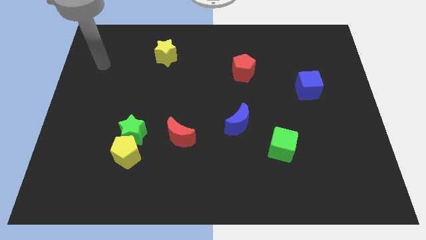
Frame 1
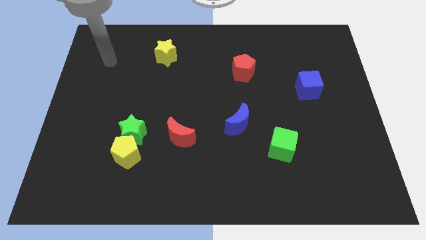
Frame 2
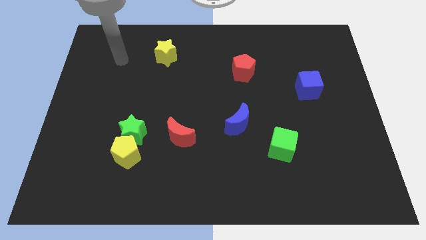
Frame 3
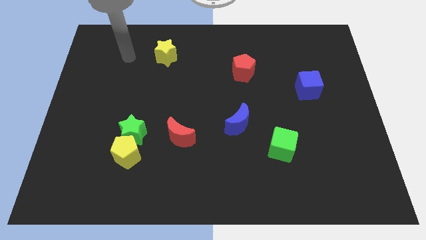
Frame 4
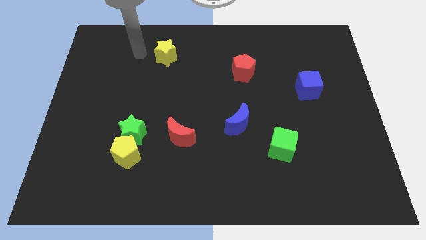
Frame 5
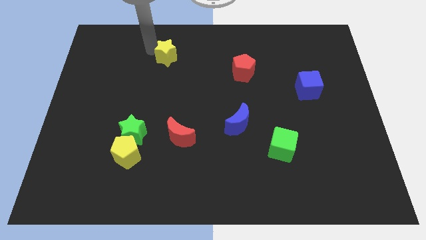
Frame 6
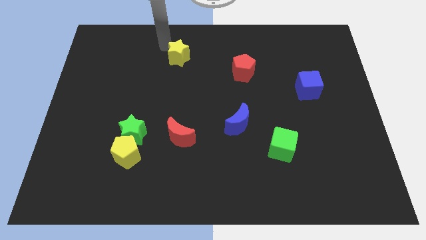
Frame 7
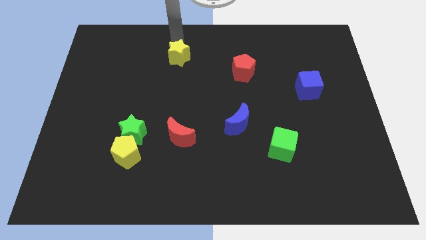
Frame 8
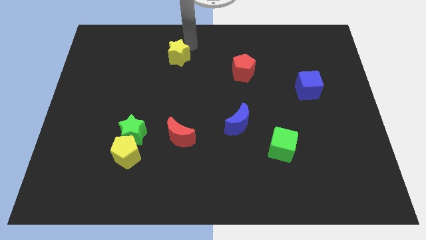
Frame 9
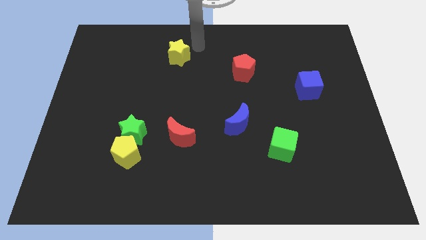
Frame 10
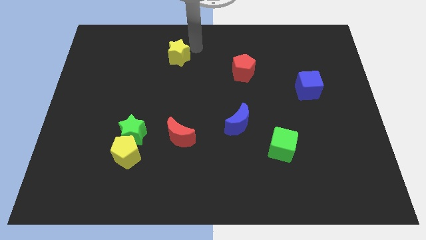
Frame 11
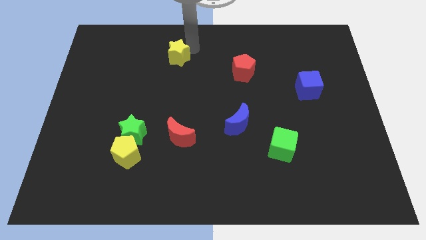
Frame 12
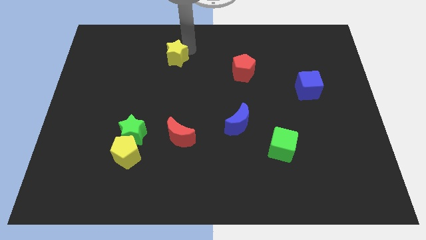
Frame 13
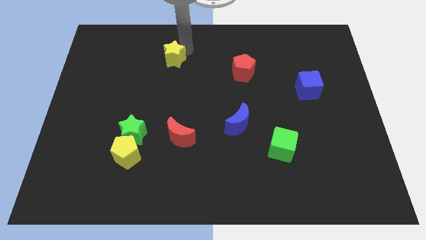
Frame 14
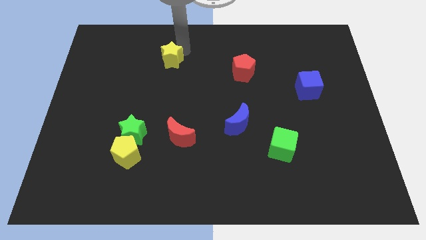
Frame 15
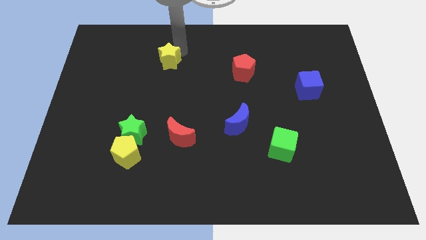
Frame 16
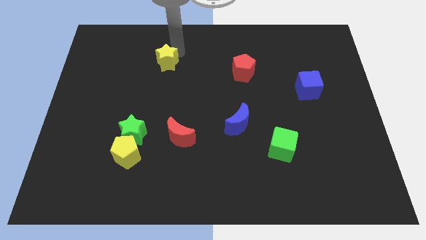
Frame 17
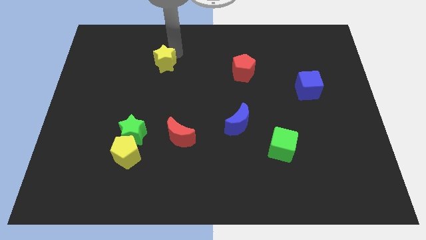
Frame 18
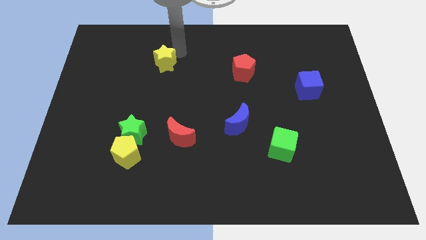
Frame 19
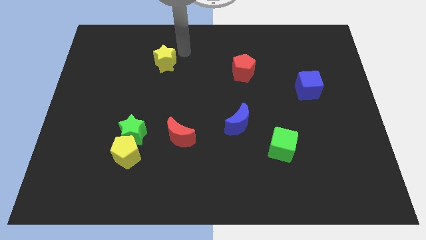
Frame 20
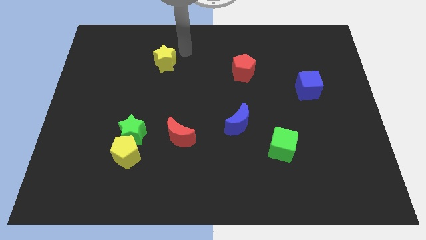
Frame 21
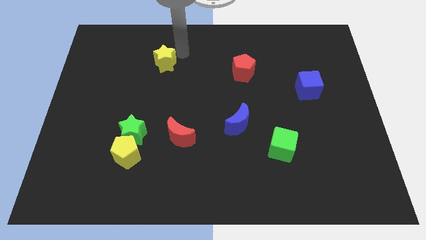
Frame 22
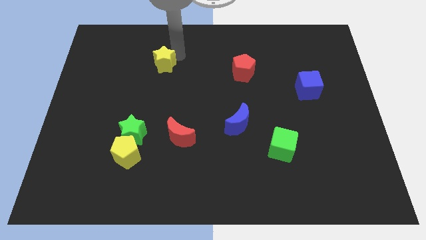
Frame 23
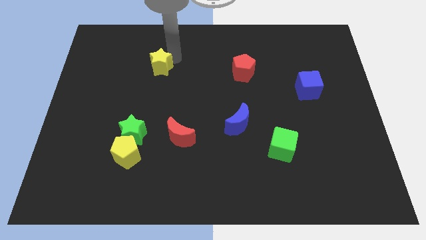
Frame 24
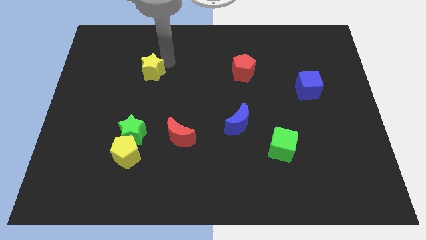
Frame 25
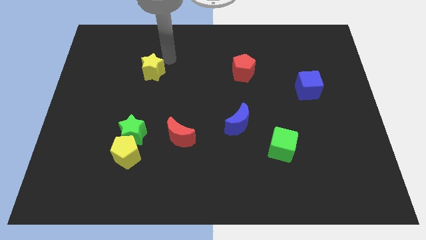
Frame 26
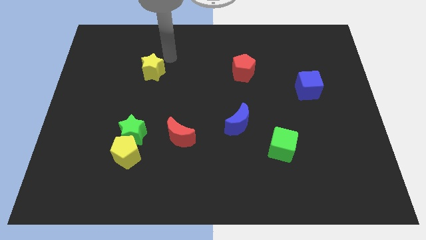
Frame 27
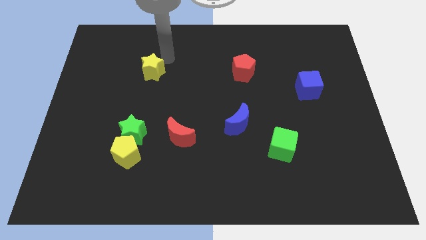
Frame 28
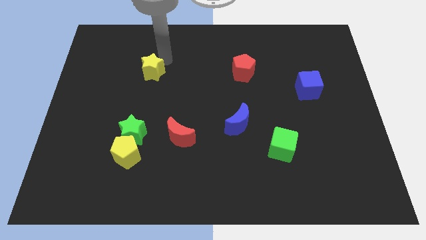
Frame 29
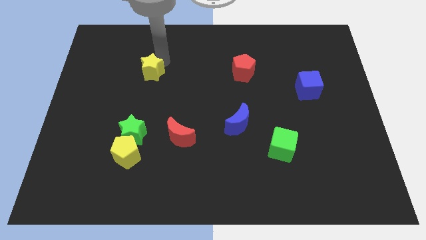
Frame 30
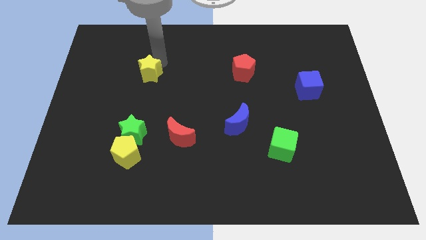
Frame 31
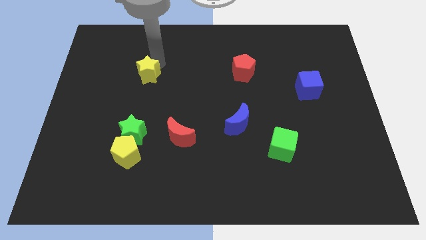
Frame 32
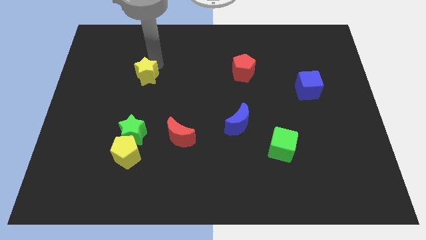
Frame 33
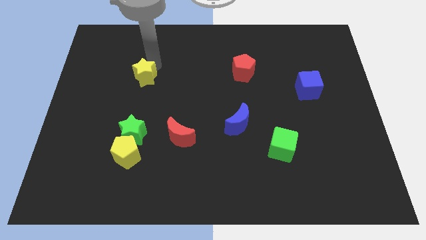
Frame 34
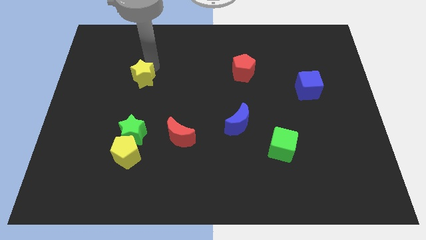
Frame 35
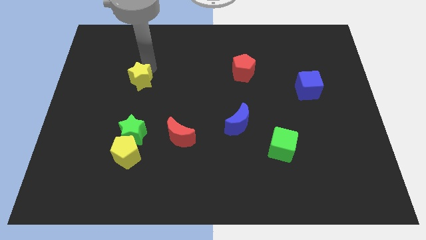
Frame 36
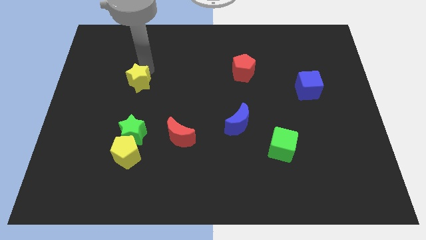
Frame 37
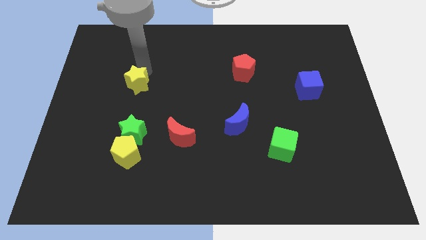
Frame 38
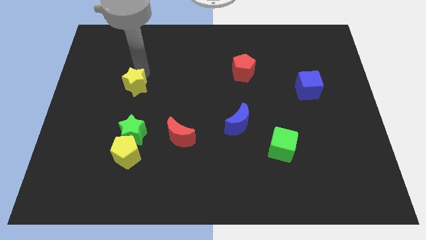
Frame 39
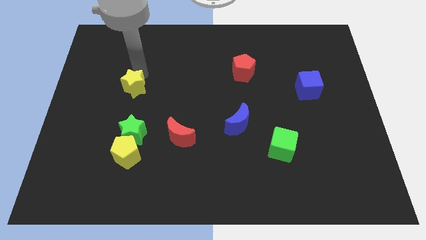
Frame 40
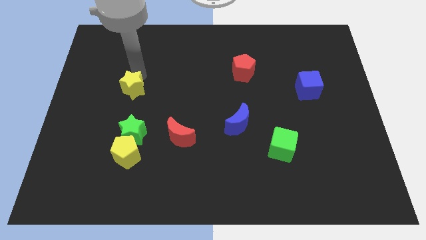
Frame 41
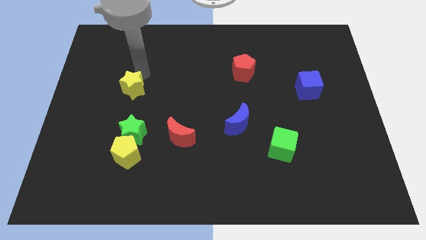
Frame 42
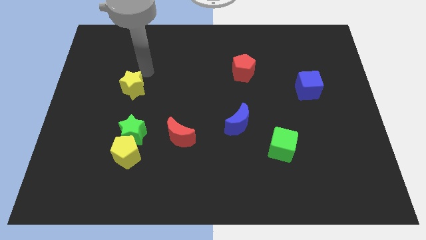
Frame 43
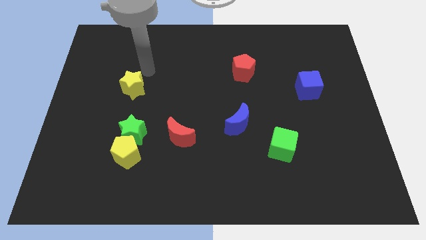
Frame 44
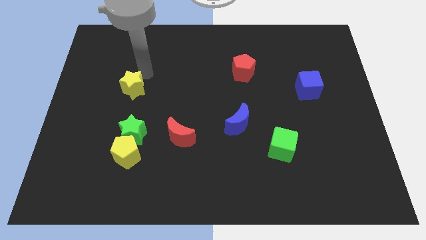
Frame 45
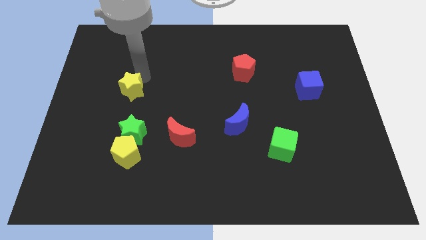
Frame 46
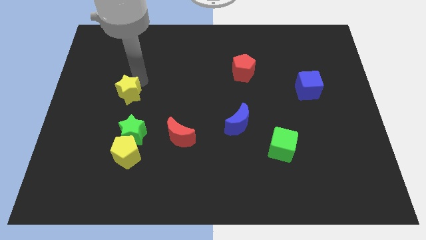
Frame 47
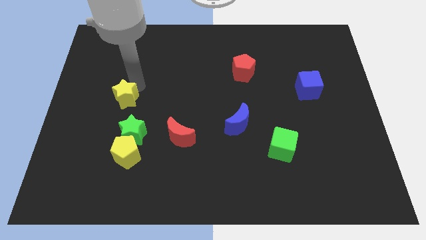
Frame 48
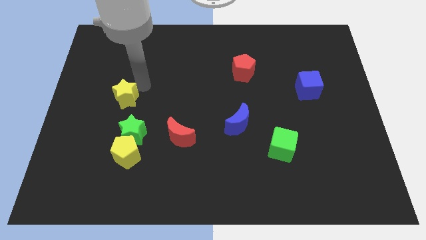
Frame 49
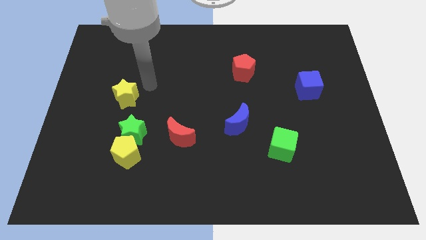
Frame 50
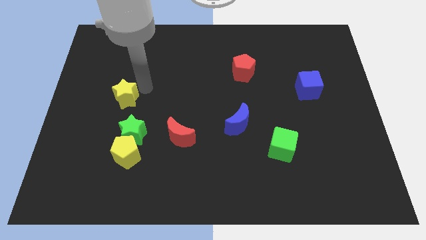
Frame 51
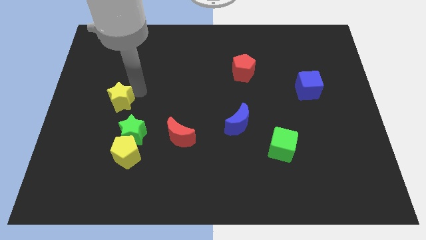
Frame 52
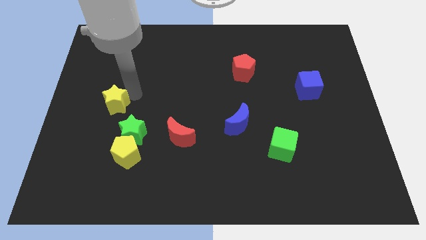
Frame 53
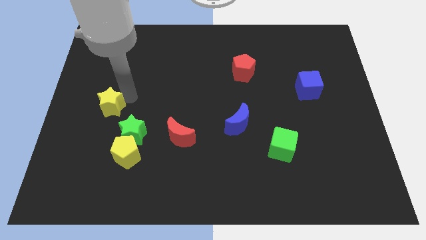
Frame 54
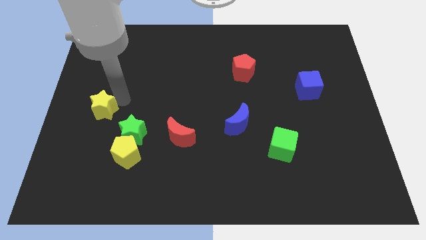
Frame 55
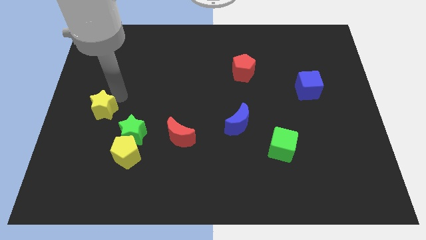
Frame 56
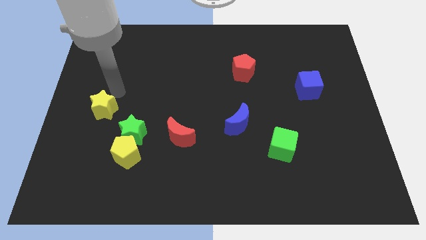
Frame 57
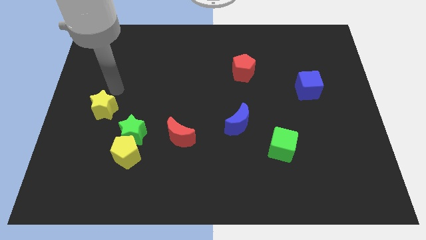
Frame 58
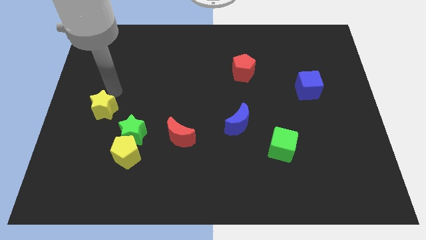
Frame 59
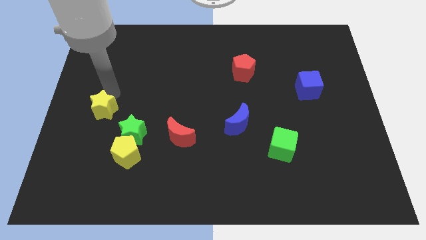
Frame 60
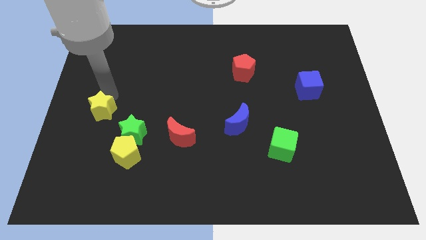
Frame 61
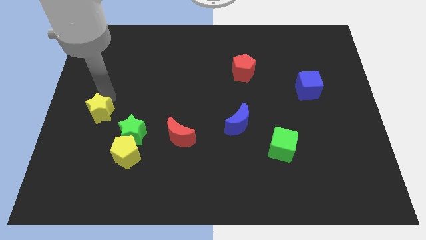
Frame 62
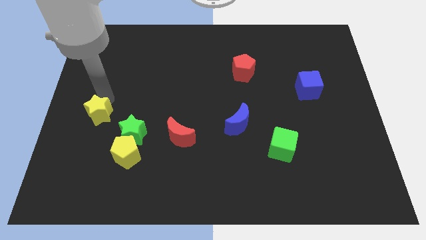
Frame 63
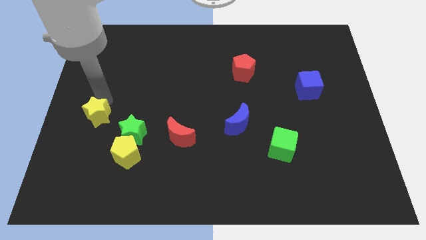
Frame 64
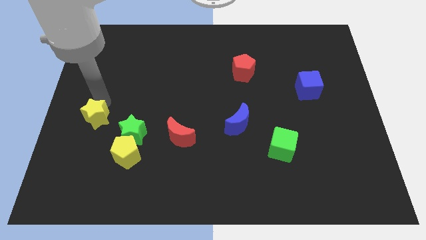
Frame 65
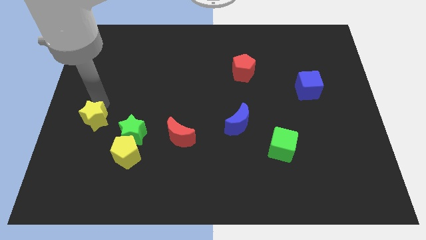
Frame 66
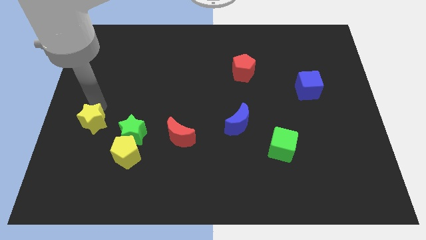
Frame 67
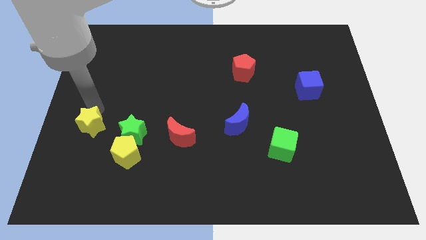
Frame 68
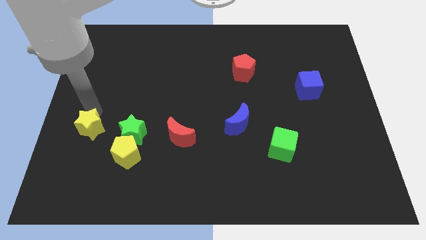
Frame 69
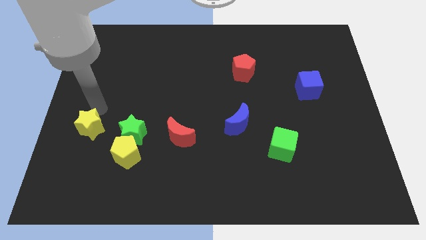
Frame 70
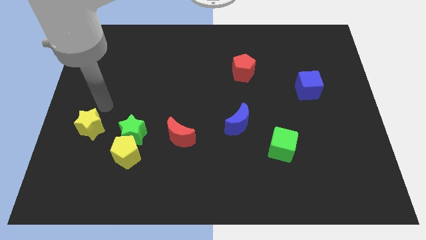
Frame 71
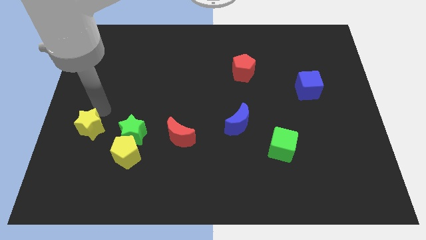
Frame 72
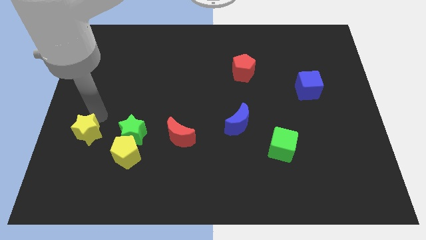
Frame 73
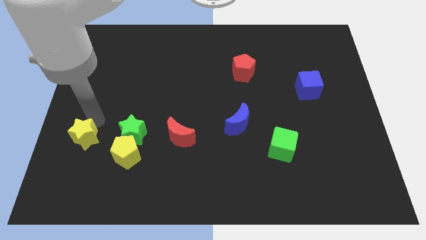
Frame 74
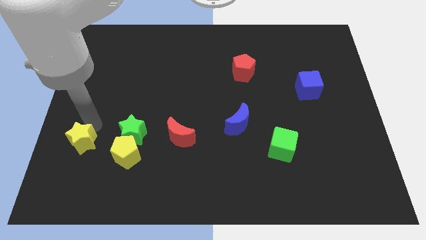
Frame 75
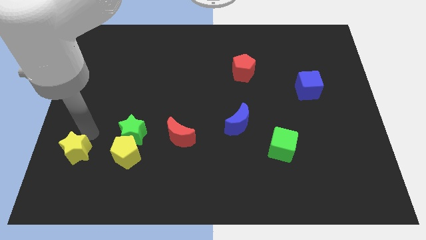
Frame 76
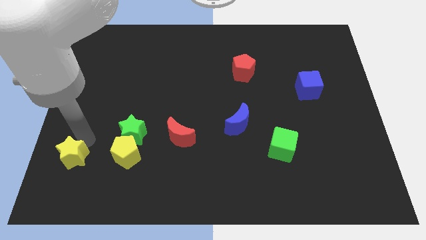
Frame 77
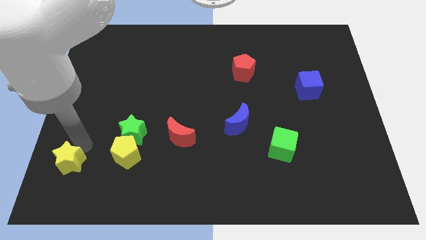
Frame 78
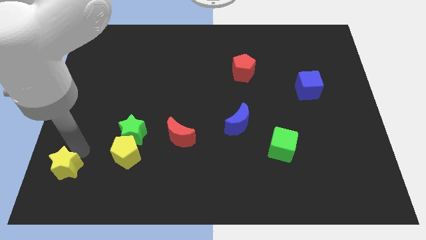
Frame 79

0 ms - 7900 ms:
slide the yellow star to the bottom left corner
